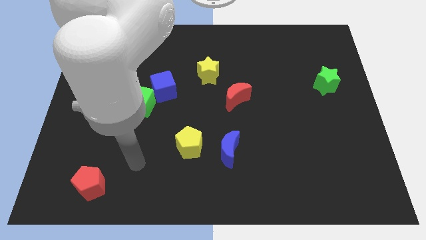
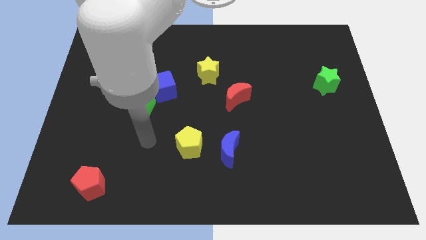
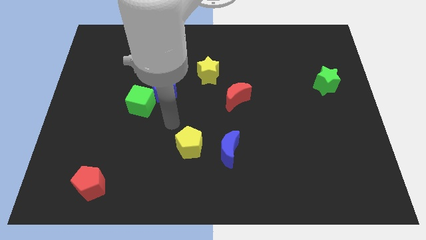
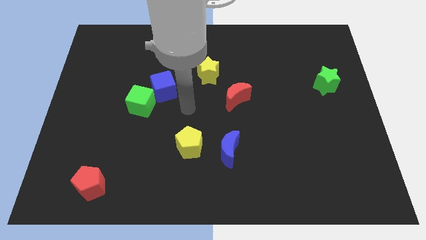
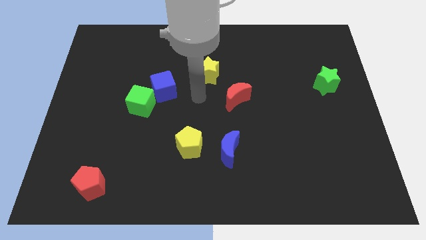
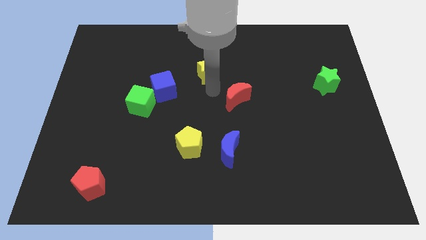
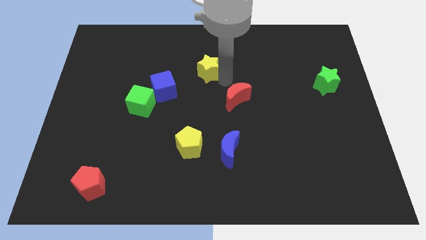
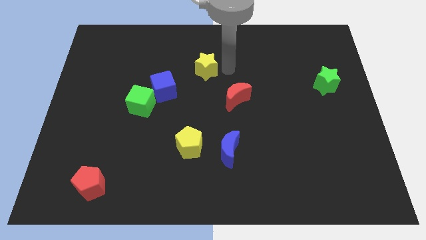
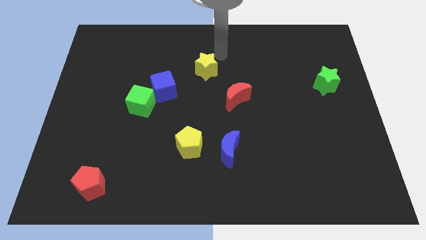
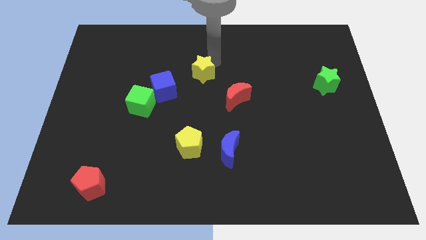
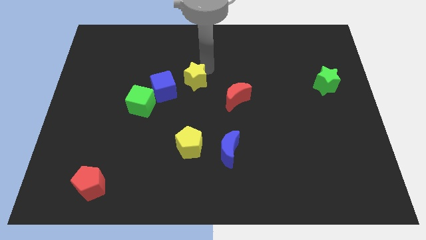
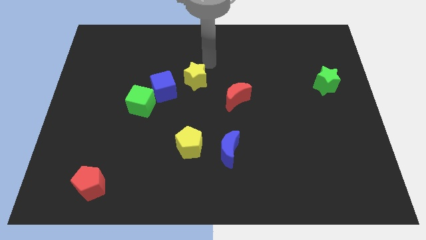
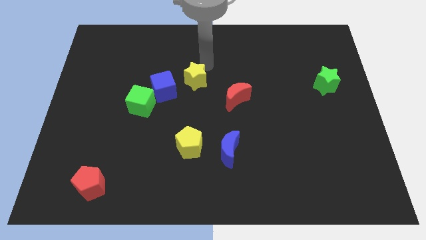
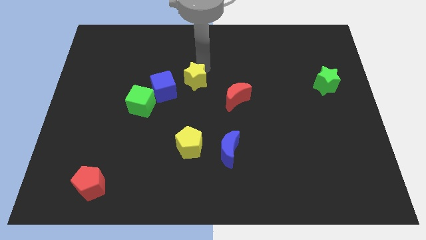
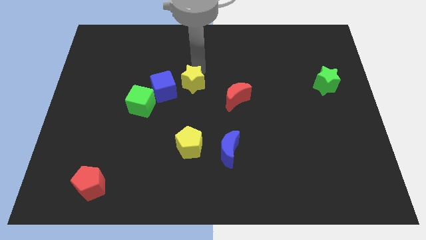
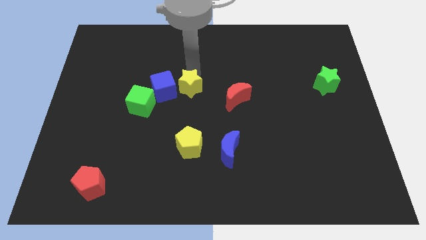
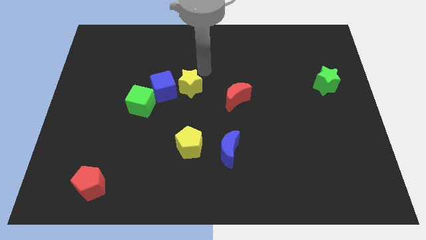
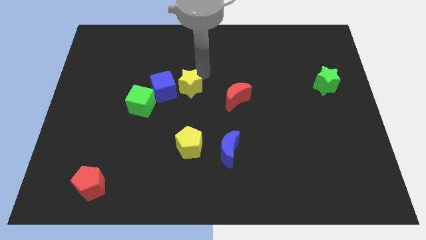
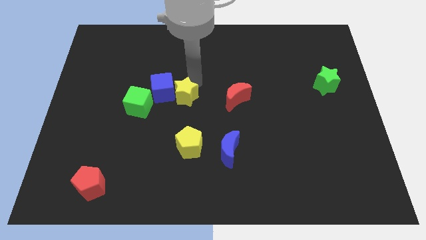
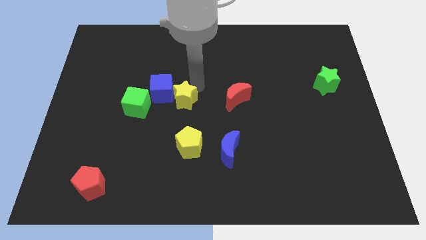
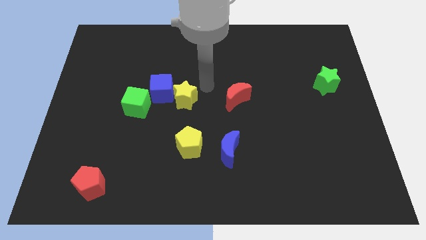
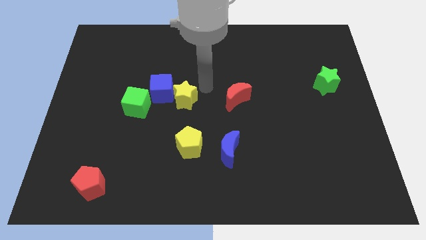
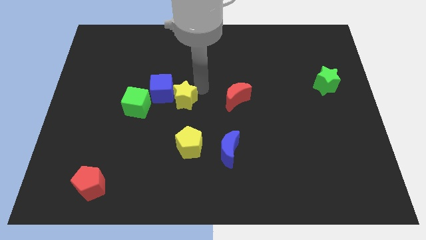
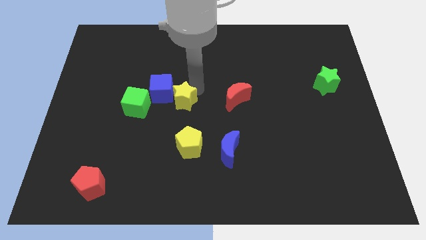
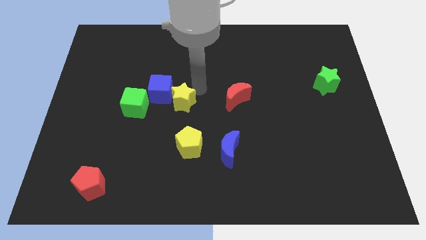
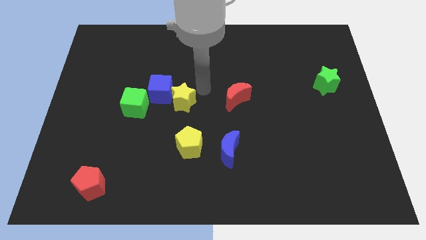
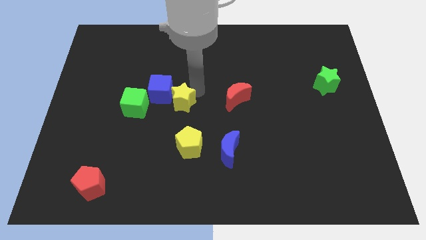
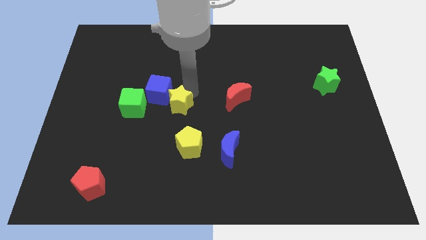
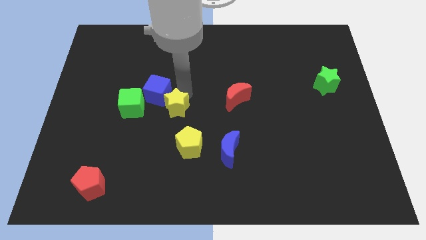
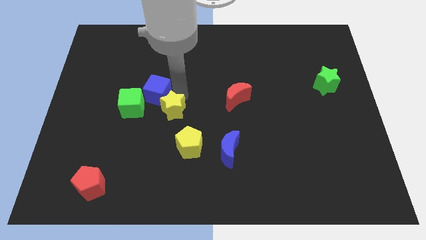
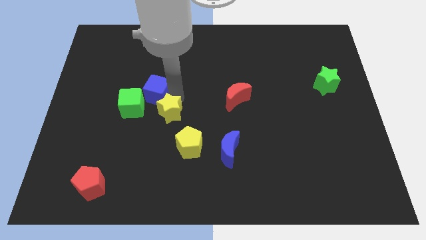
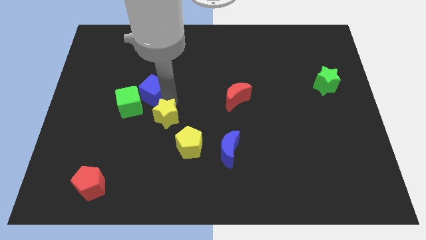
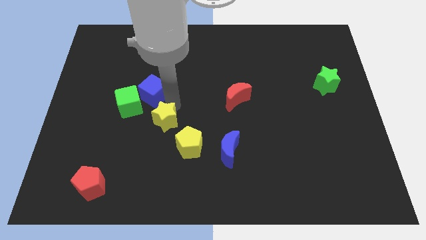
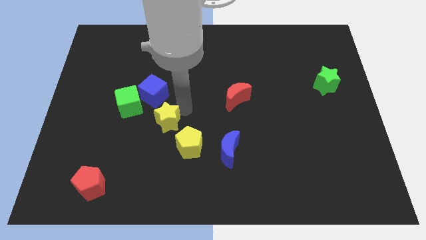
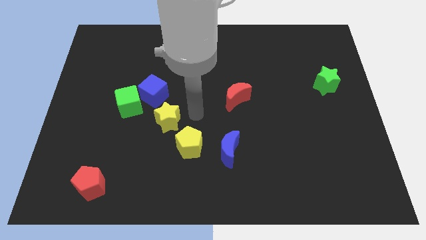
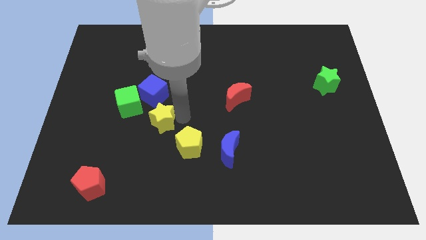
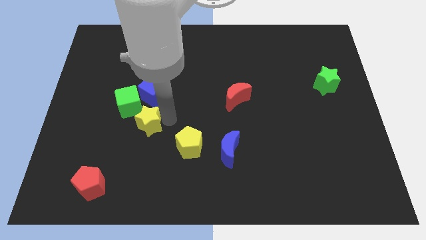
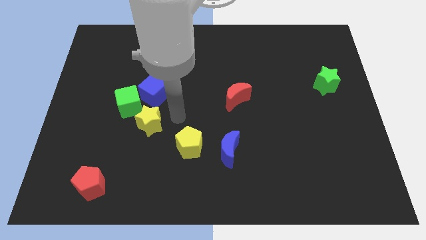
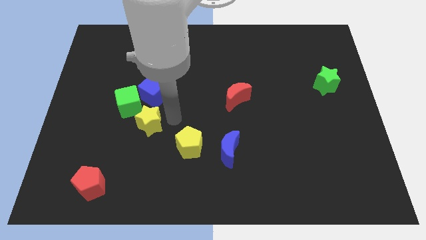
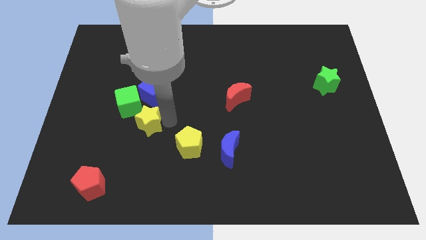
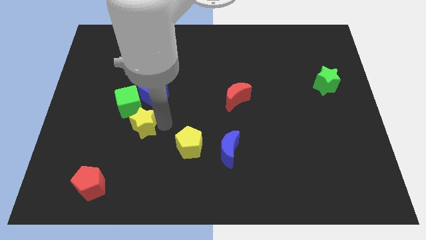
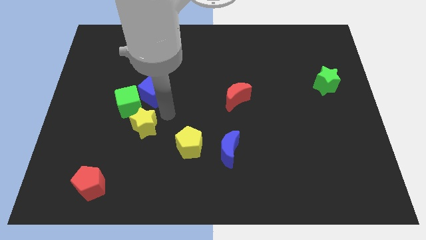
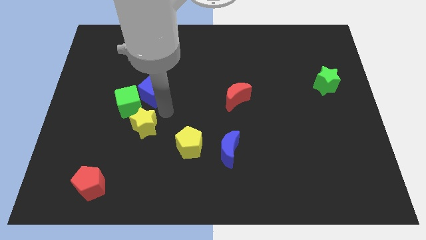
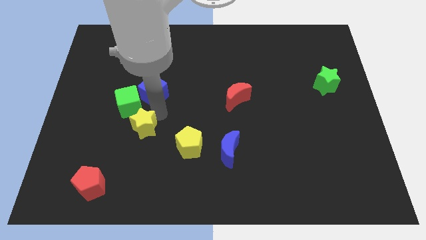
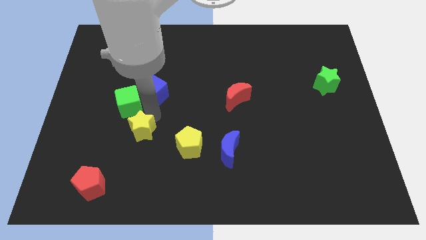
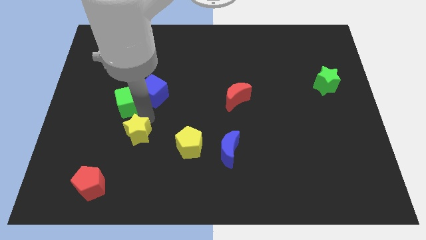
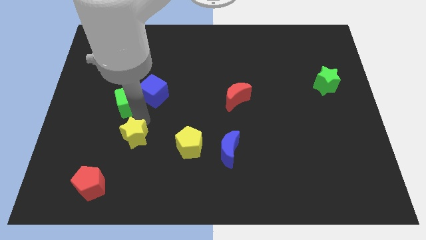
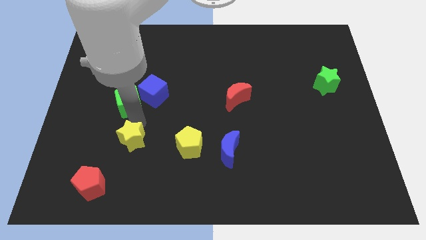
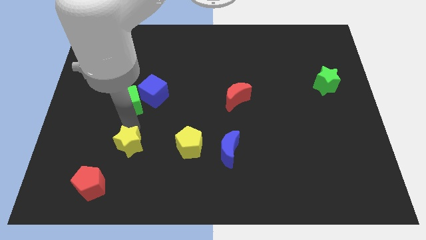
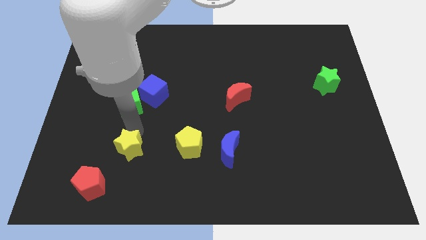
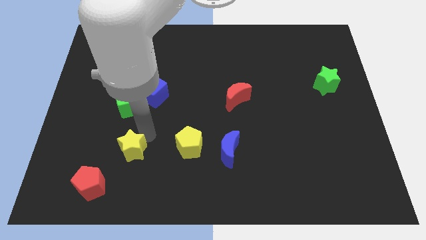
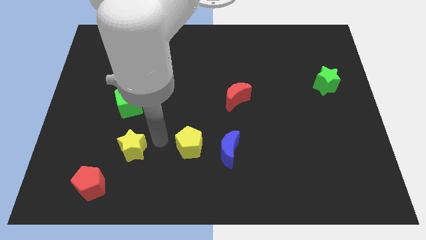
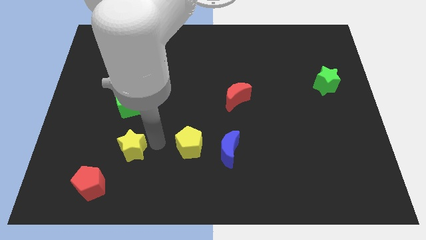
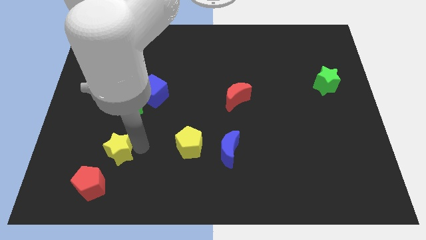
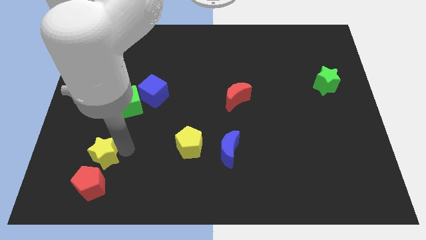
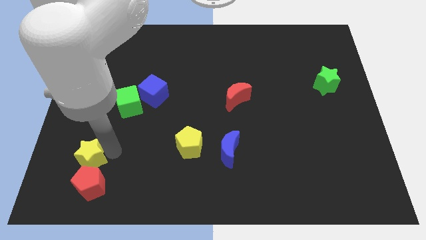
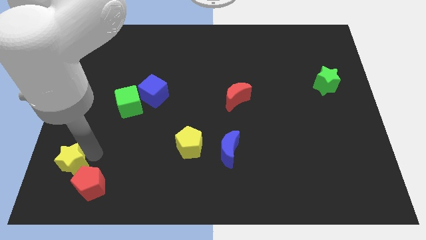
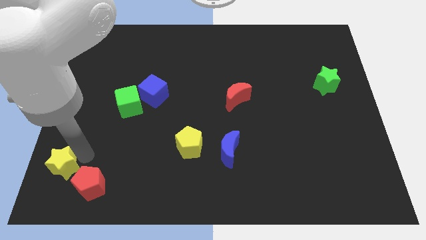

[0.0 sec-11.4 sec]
push the yellow star to the bottom left of the board

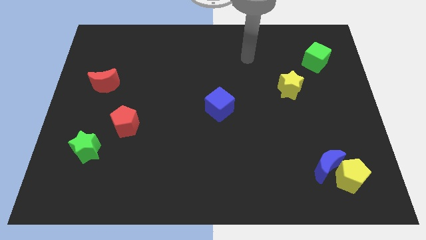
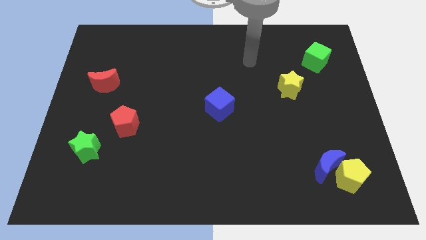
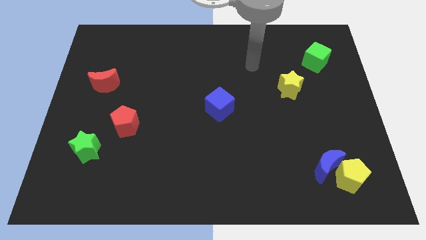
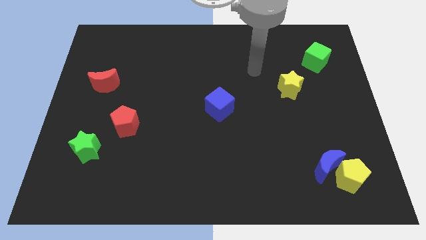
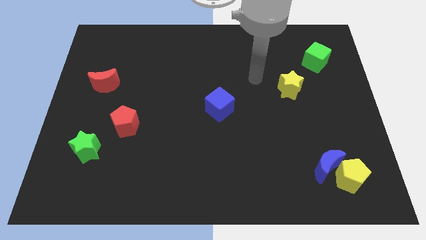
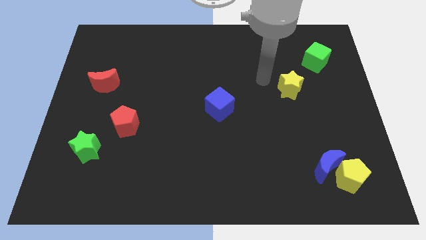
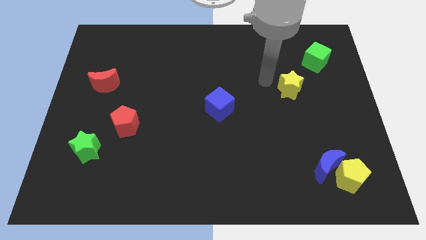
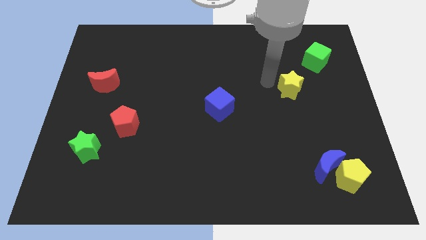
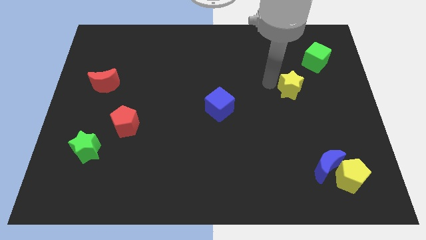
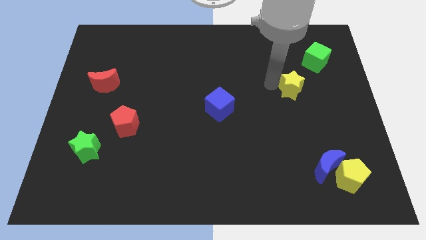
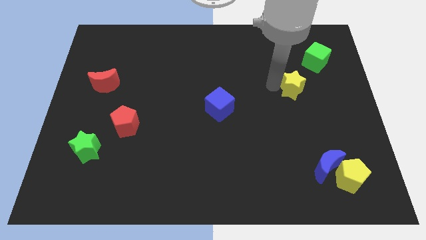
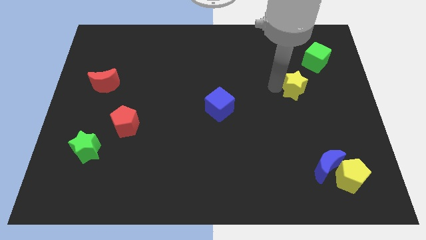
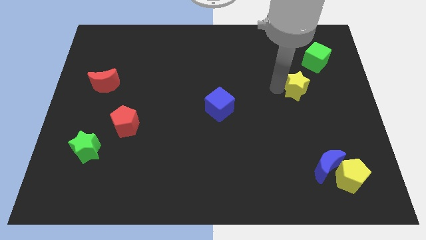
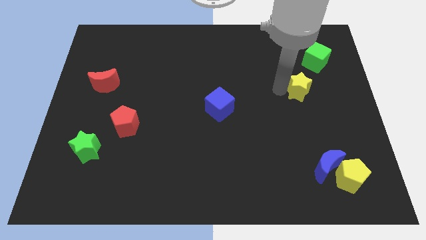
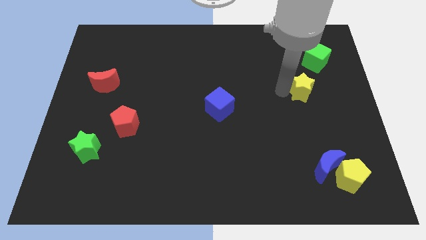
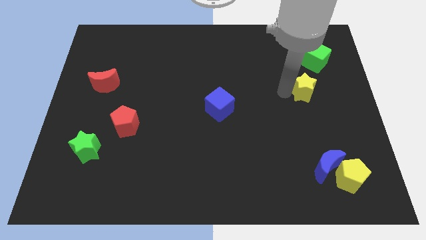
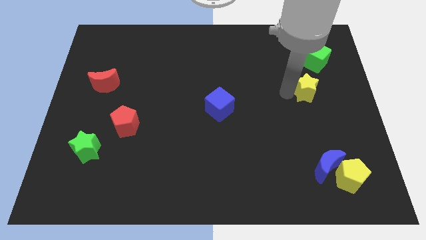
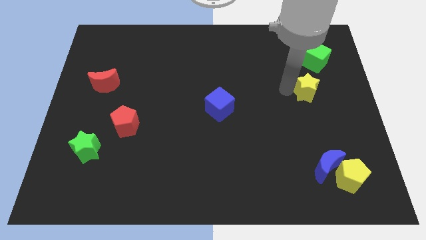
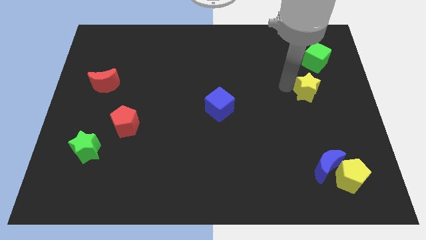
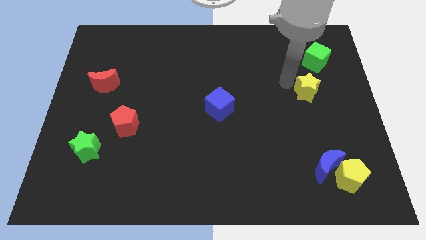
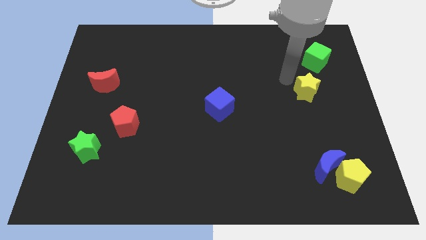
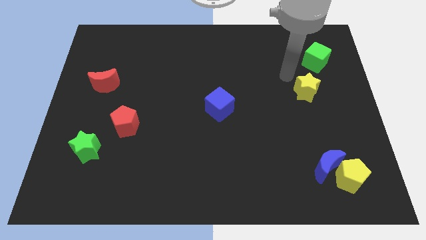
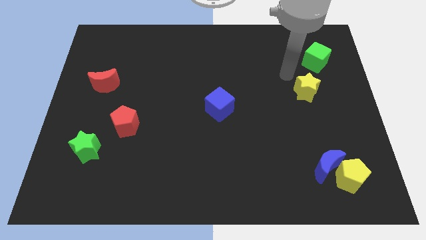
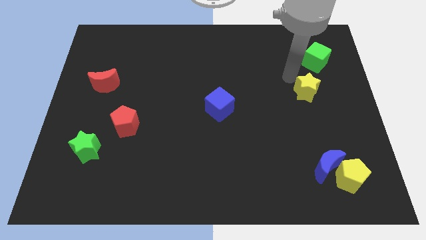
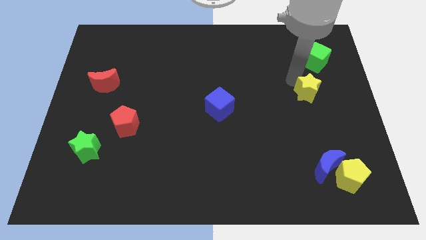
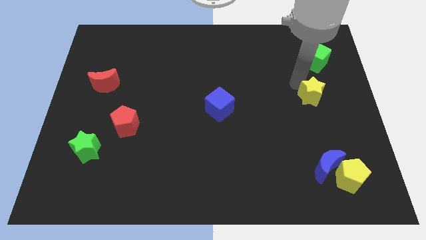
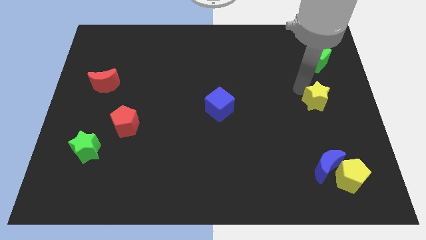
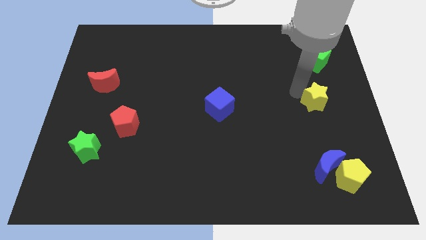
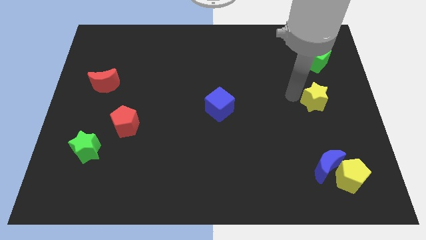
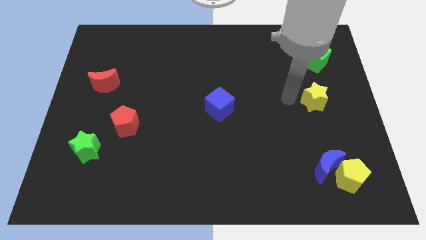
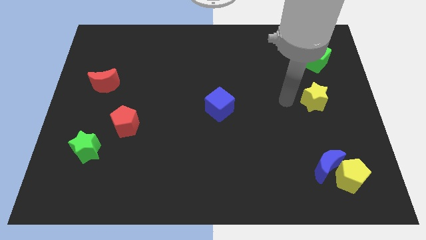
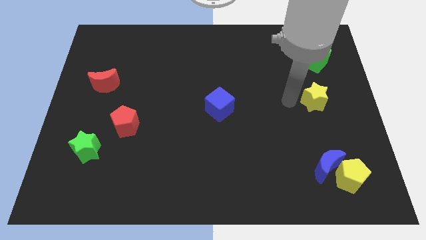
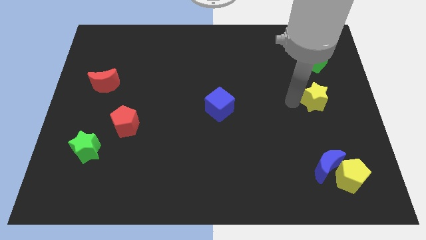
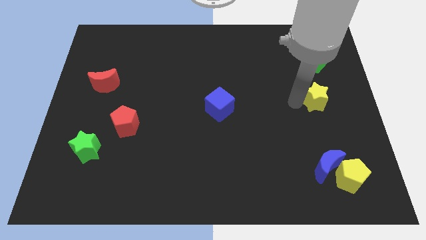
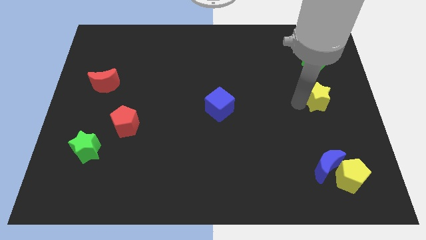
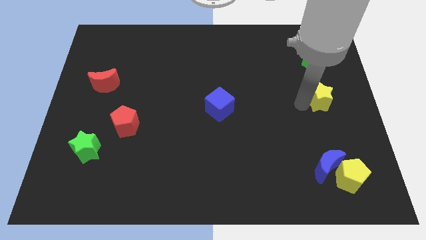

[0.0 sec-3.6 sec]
push the yellow star to the right side of the board
